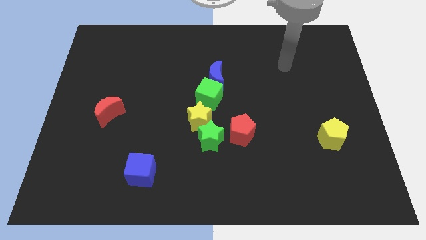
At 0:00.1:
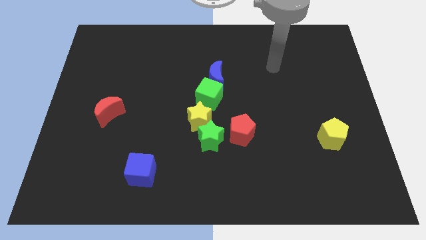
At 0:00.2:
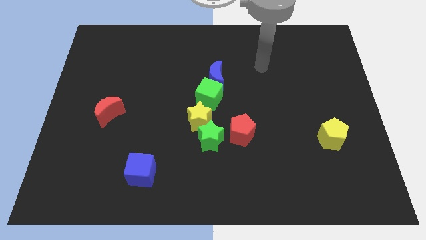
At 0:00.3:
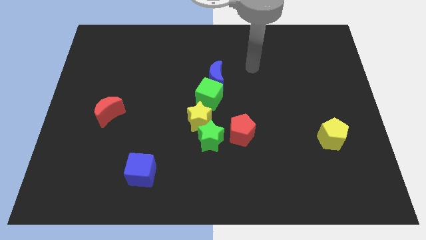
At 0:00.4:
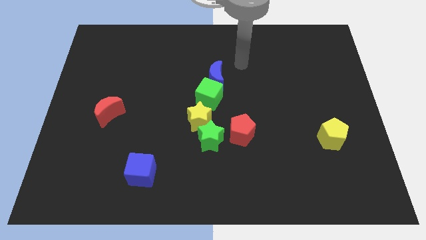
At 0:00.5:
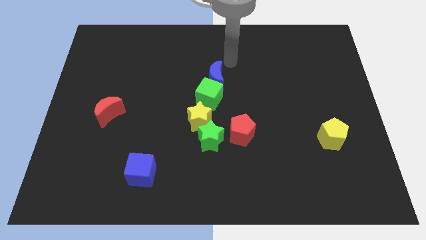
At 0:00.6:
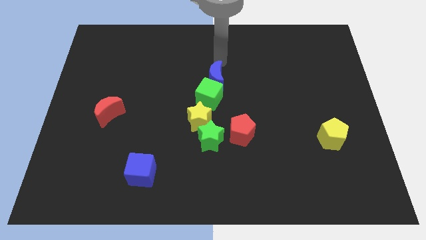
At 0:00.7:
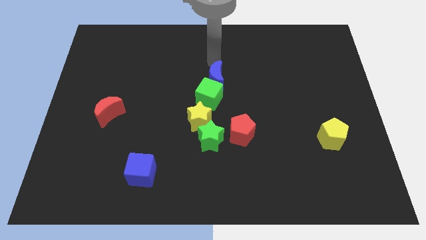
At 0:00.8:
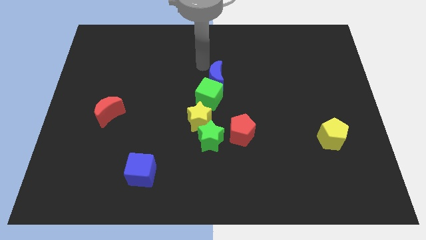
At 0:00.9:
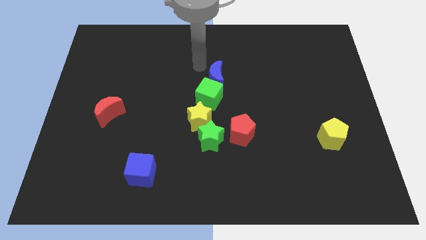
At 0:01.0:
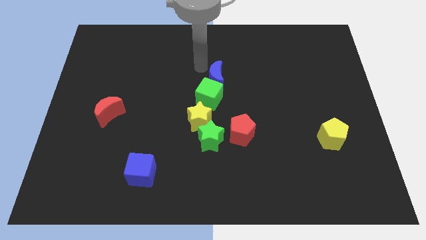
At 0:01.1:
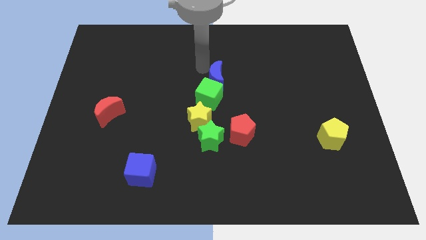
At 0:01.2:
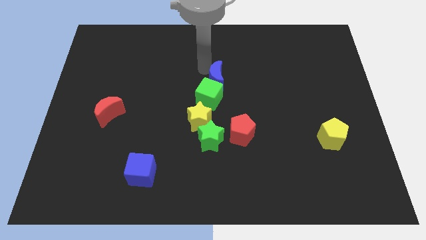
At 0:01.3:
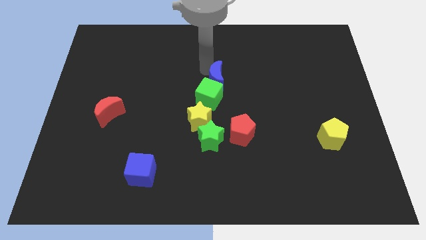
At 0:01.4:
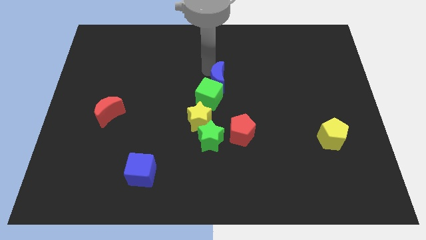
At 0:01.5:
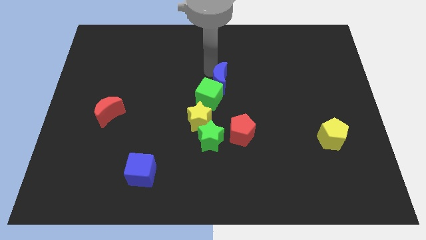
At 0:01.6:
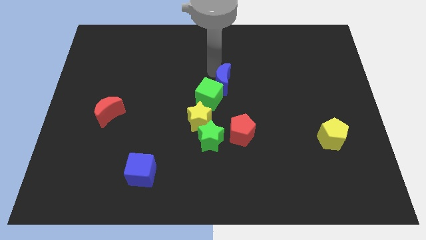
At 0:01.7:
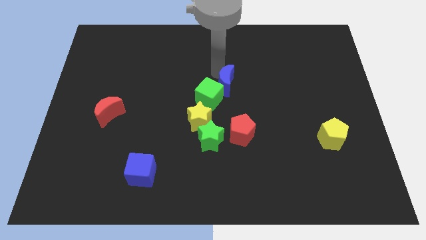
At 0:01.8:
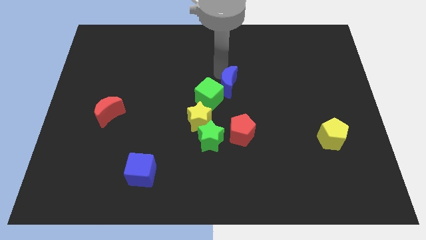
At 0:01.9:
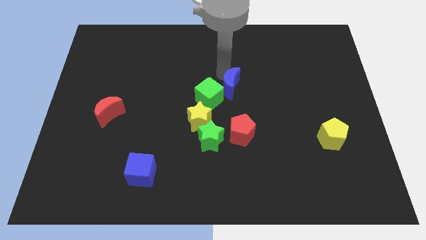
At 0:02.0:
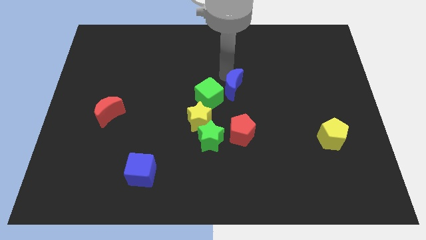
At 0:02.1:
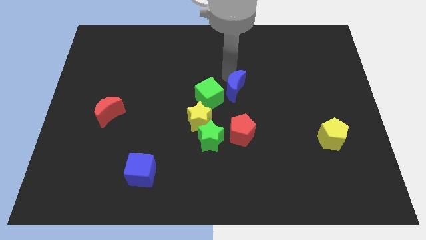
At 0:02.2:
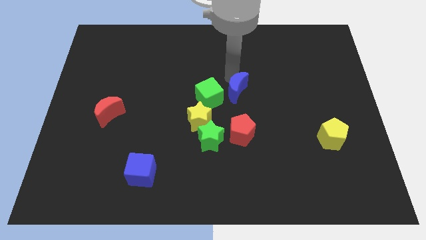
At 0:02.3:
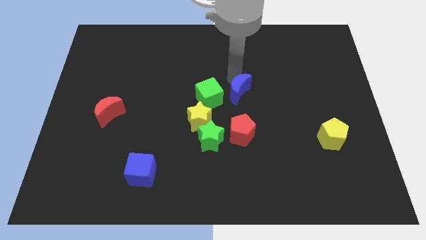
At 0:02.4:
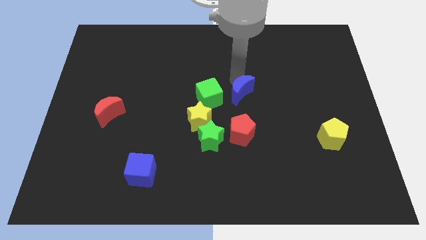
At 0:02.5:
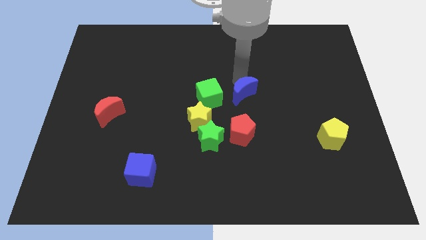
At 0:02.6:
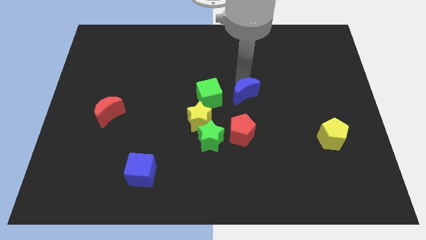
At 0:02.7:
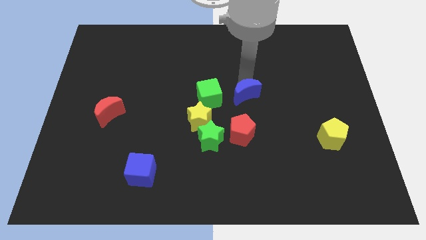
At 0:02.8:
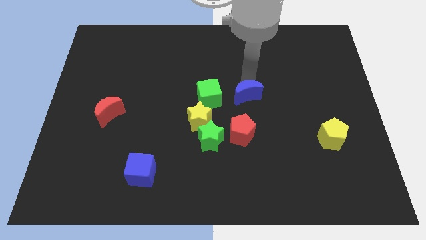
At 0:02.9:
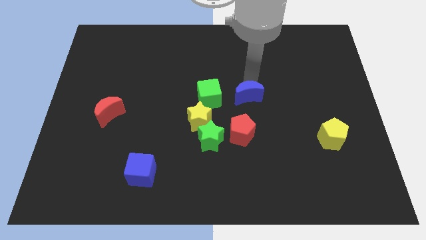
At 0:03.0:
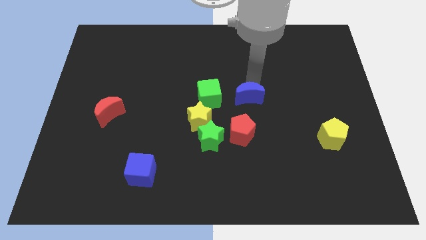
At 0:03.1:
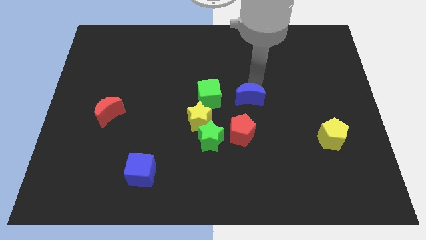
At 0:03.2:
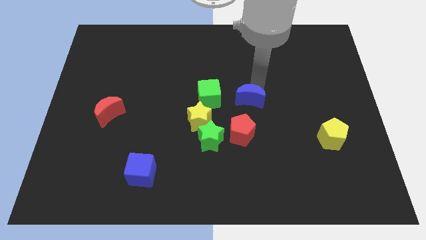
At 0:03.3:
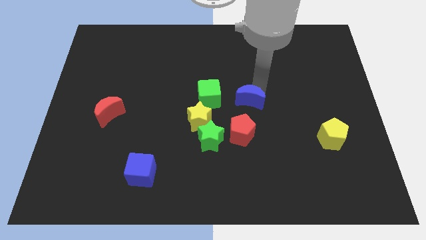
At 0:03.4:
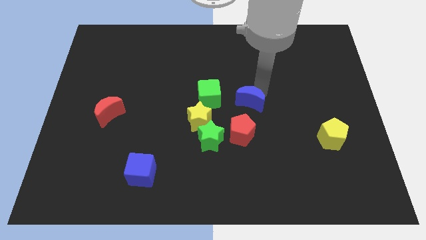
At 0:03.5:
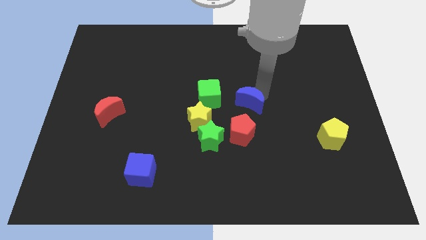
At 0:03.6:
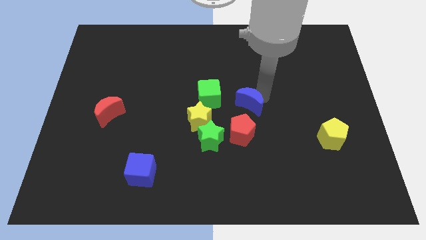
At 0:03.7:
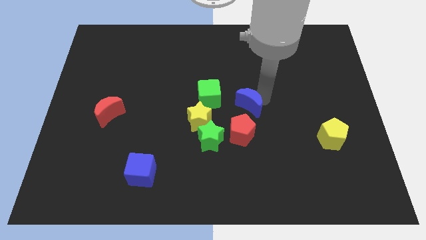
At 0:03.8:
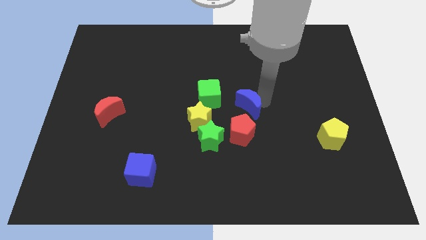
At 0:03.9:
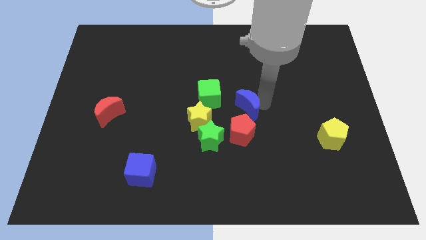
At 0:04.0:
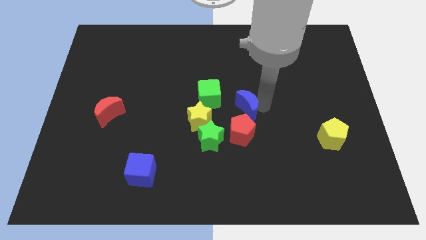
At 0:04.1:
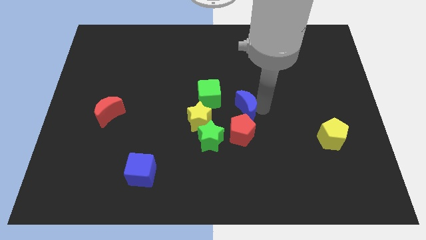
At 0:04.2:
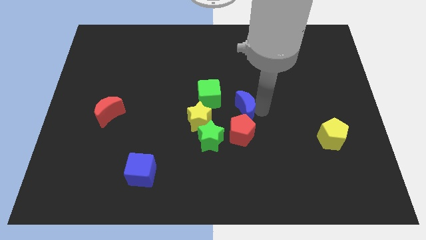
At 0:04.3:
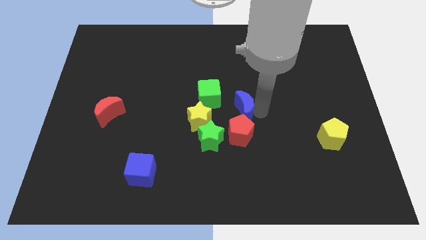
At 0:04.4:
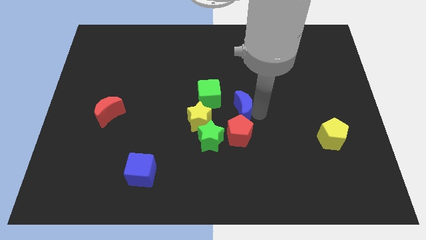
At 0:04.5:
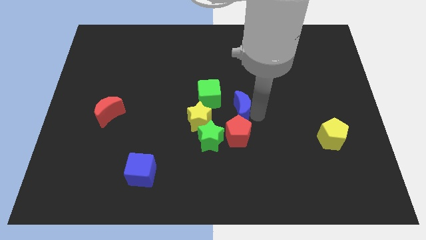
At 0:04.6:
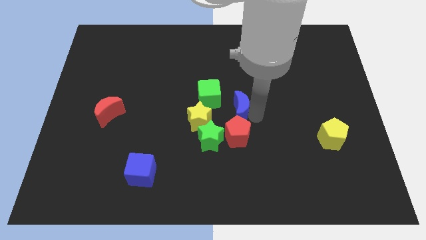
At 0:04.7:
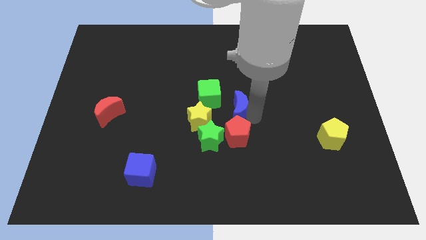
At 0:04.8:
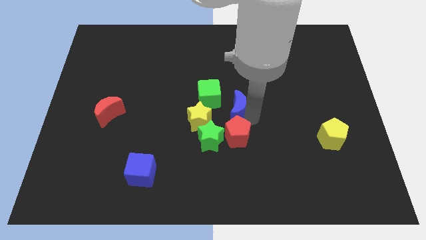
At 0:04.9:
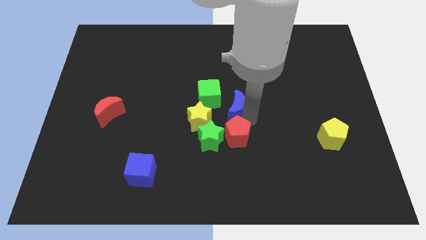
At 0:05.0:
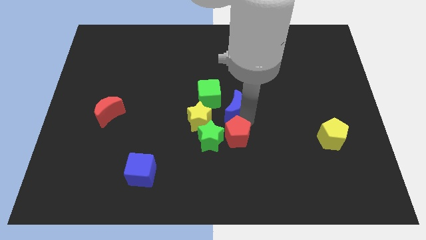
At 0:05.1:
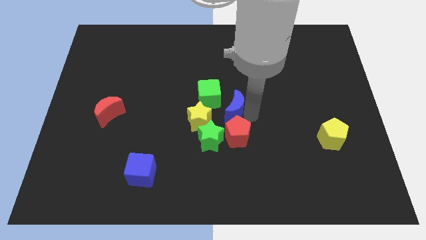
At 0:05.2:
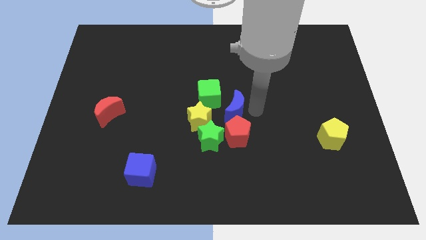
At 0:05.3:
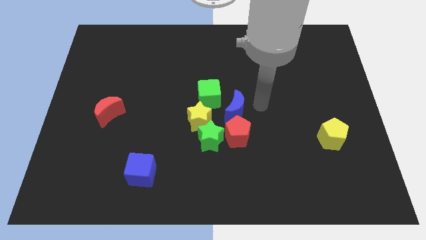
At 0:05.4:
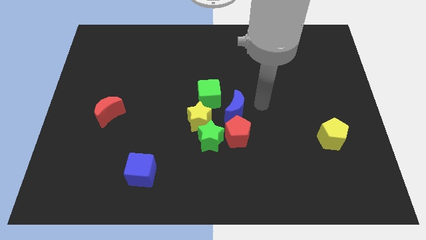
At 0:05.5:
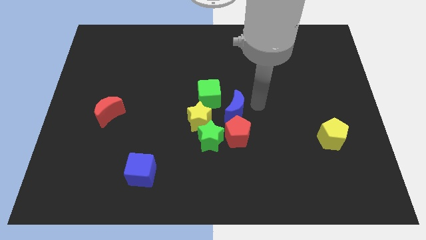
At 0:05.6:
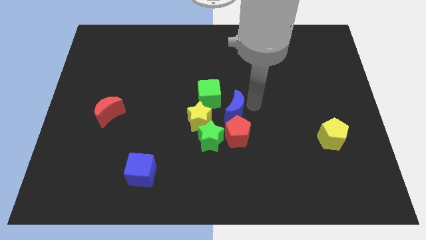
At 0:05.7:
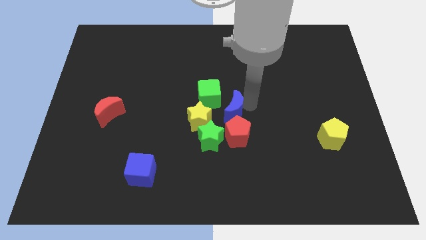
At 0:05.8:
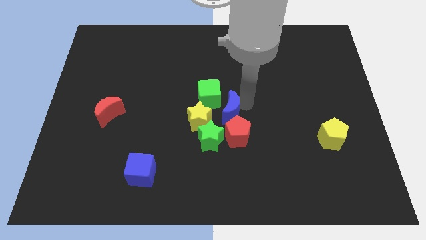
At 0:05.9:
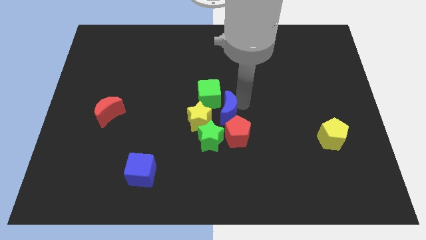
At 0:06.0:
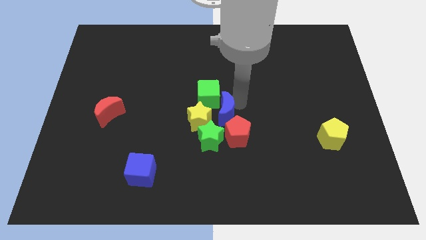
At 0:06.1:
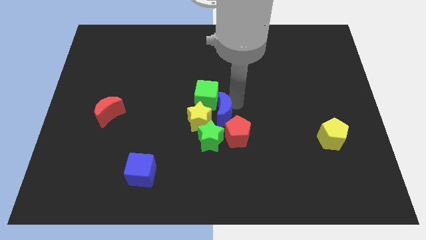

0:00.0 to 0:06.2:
put the blue moon towards the yellow star

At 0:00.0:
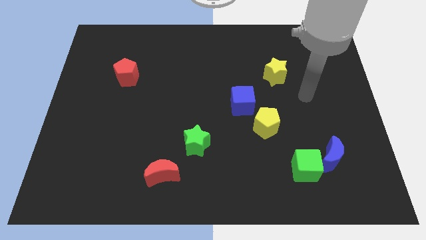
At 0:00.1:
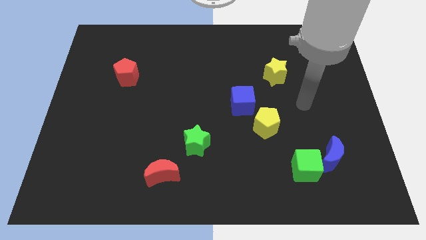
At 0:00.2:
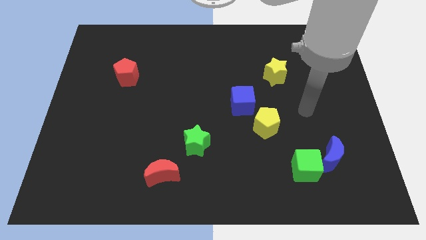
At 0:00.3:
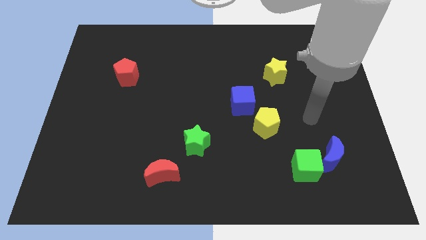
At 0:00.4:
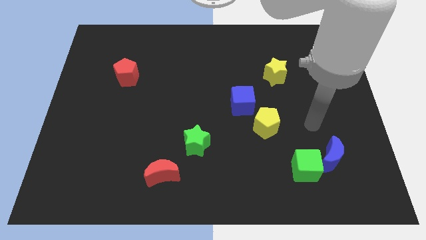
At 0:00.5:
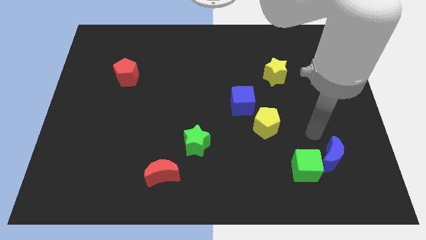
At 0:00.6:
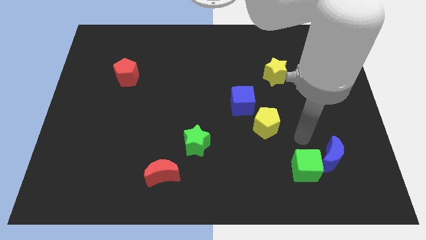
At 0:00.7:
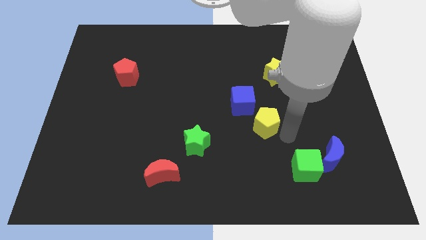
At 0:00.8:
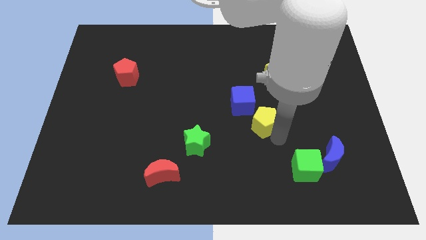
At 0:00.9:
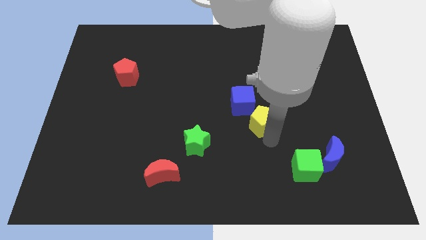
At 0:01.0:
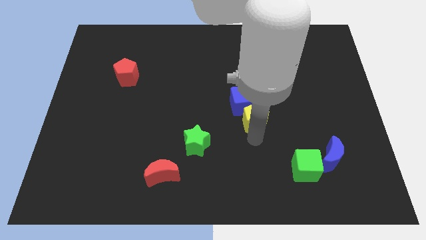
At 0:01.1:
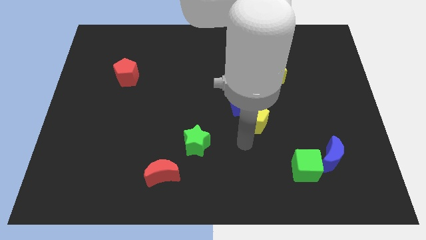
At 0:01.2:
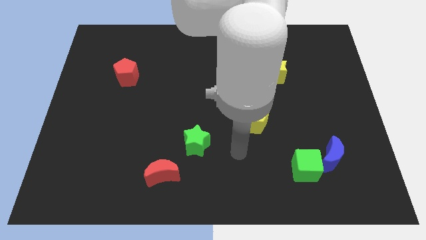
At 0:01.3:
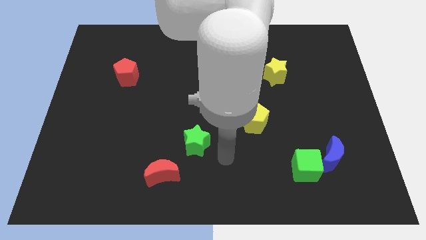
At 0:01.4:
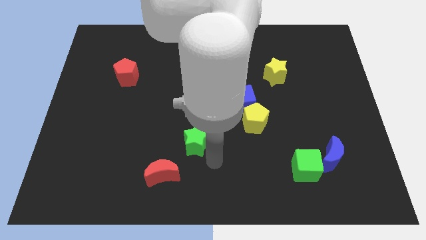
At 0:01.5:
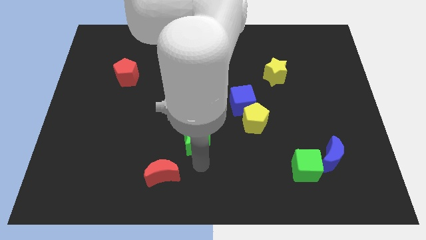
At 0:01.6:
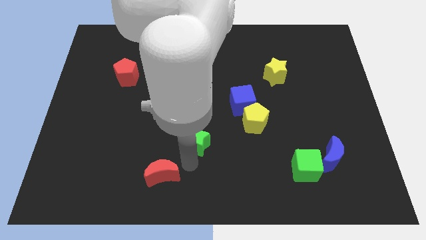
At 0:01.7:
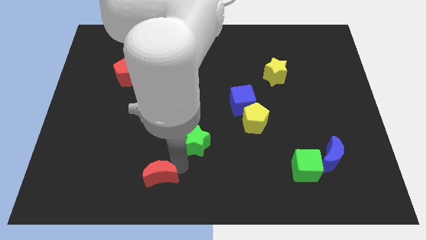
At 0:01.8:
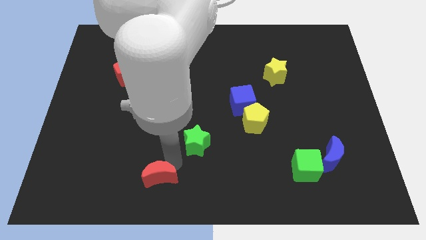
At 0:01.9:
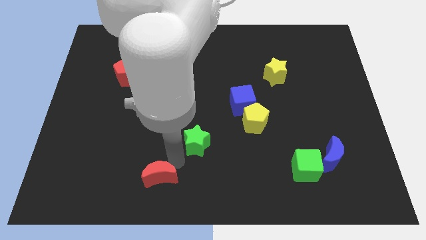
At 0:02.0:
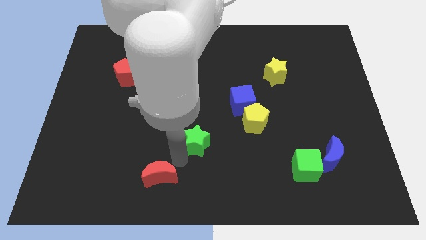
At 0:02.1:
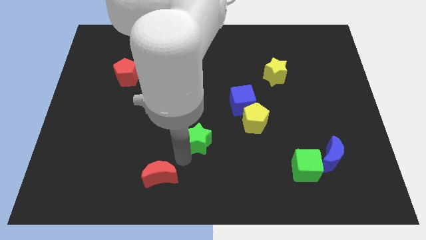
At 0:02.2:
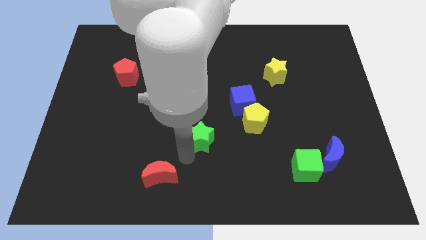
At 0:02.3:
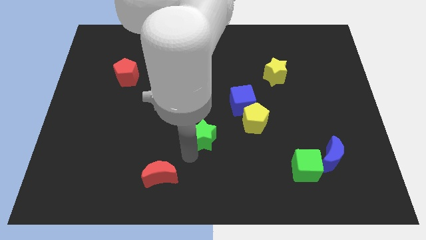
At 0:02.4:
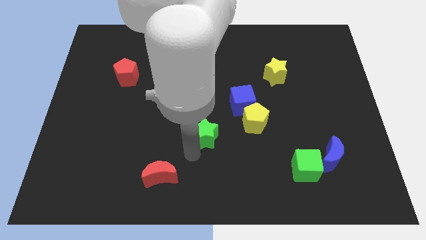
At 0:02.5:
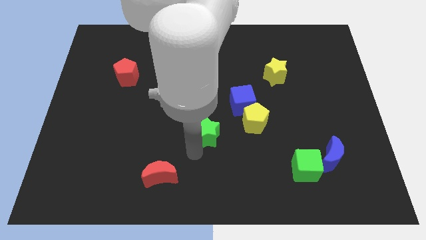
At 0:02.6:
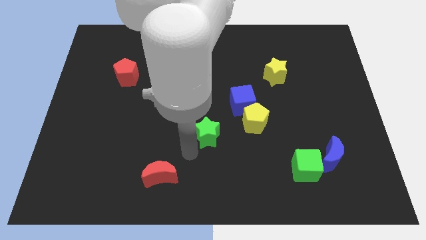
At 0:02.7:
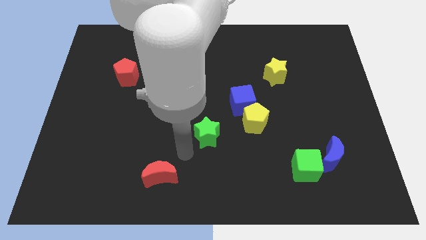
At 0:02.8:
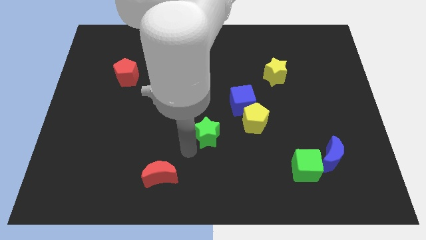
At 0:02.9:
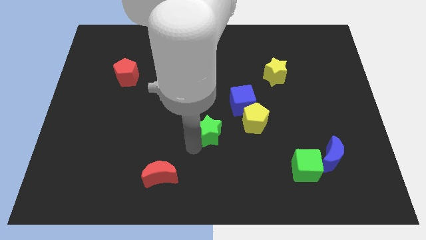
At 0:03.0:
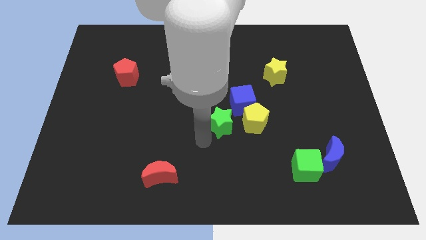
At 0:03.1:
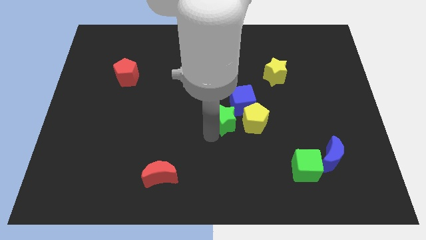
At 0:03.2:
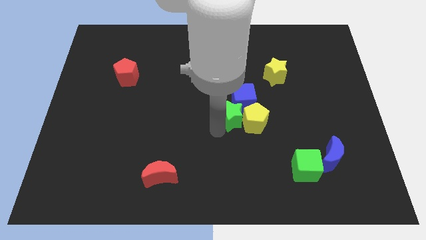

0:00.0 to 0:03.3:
move the green star next to the blue cube
